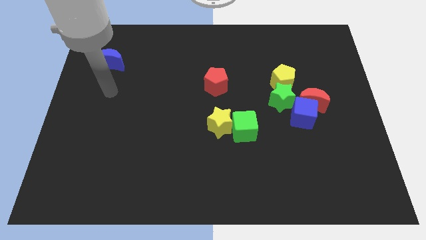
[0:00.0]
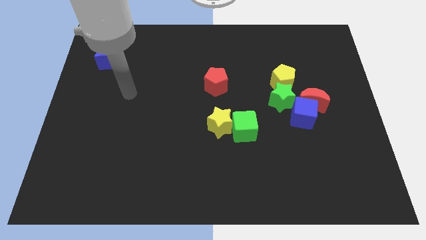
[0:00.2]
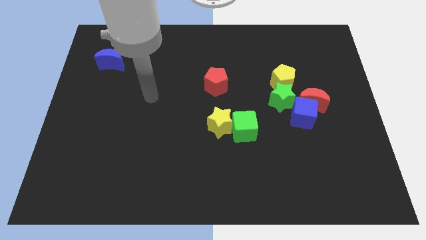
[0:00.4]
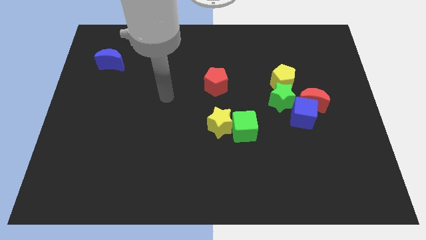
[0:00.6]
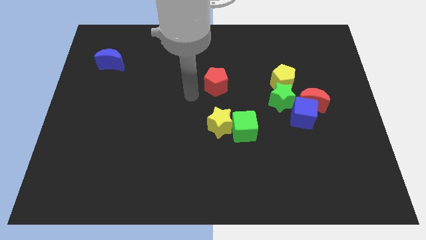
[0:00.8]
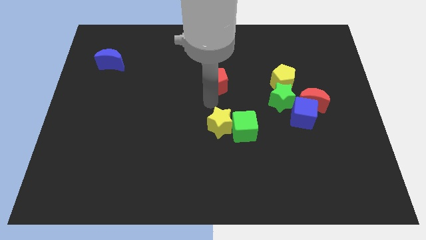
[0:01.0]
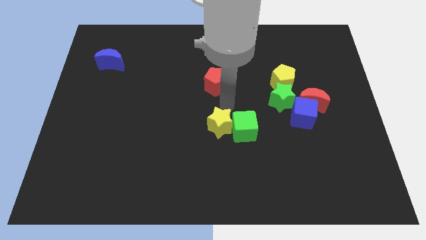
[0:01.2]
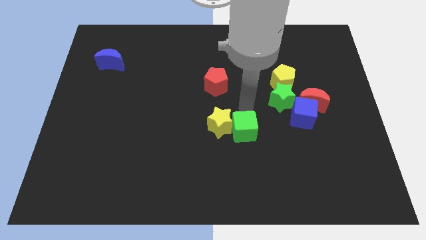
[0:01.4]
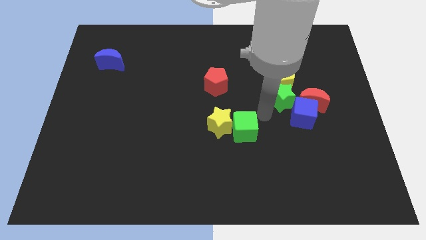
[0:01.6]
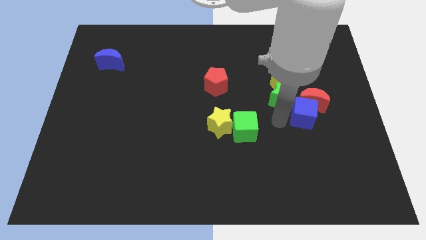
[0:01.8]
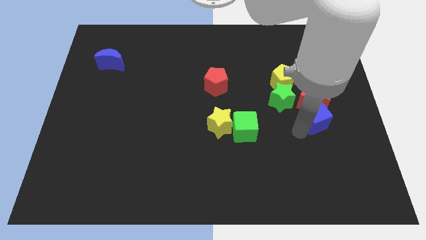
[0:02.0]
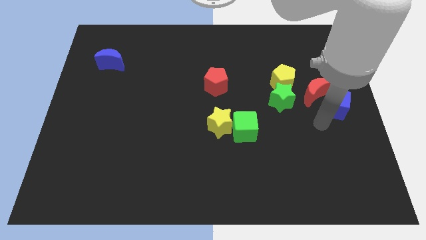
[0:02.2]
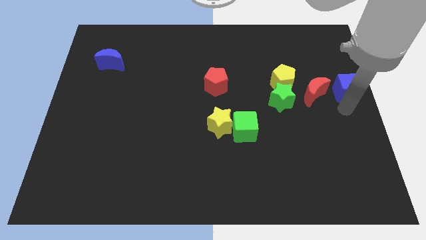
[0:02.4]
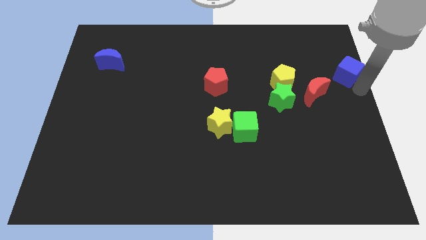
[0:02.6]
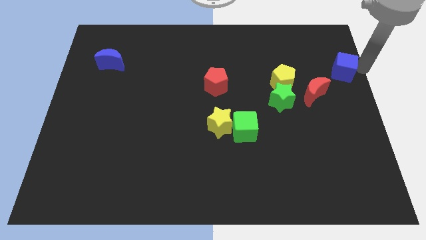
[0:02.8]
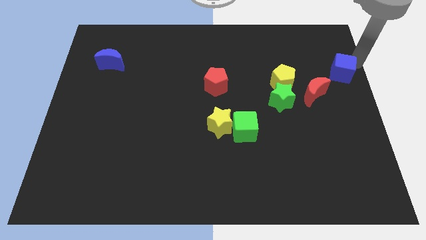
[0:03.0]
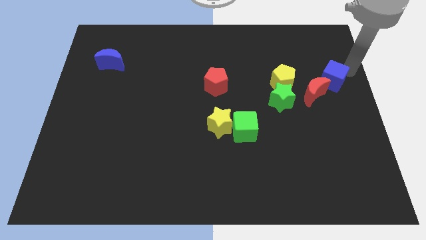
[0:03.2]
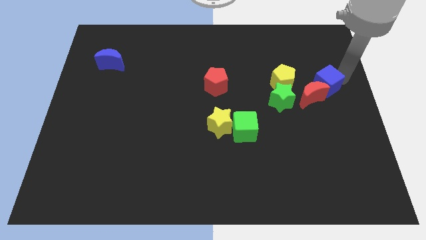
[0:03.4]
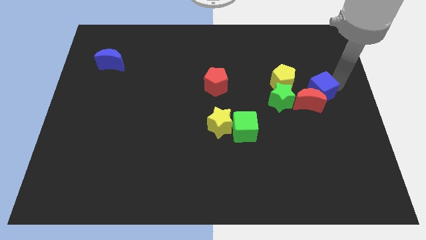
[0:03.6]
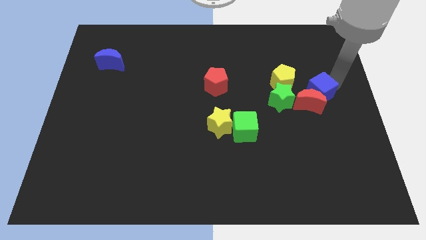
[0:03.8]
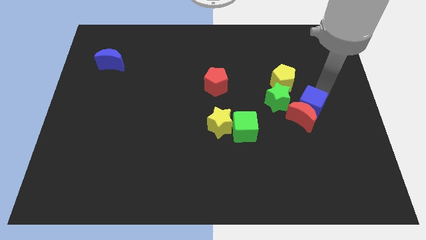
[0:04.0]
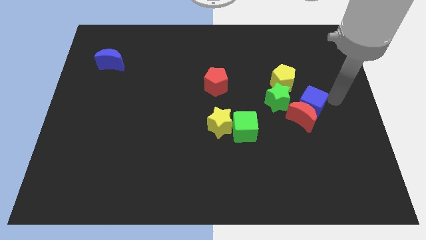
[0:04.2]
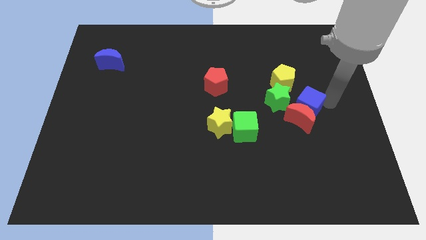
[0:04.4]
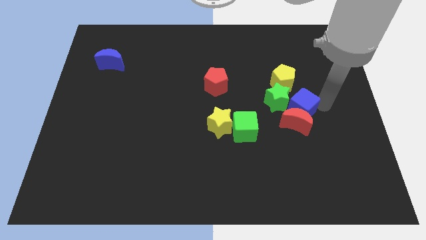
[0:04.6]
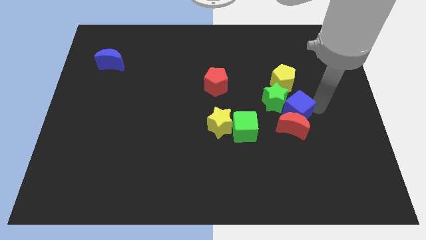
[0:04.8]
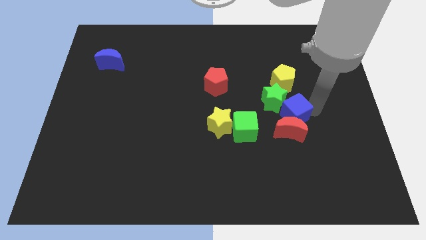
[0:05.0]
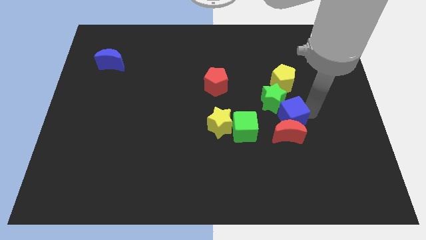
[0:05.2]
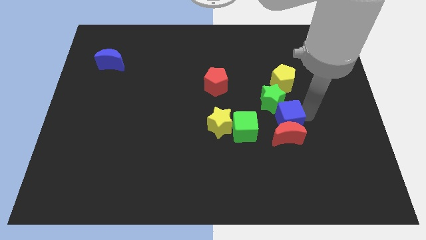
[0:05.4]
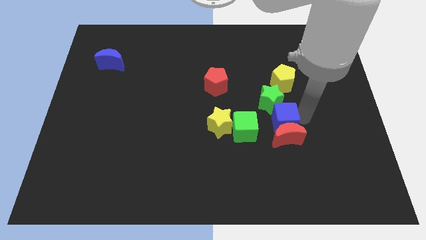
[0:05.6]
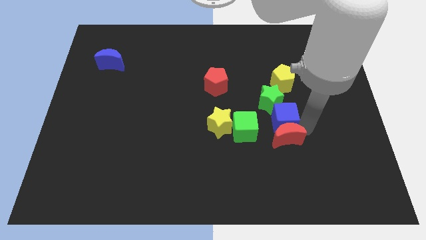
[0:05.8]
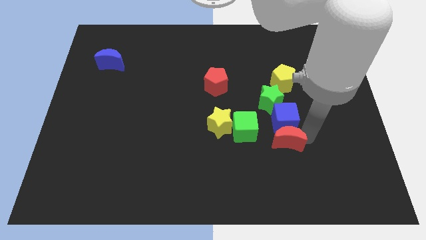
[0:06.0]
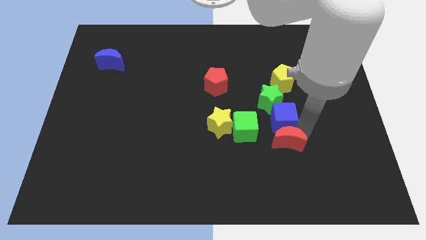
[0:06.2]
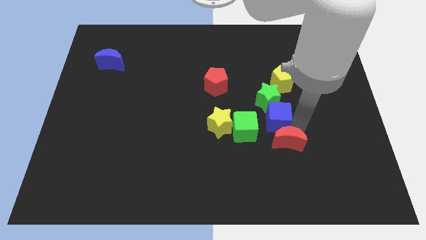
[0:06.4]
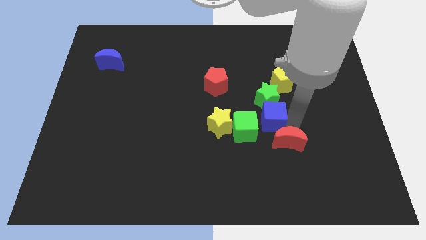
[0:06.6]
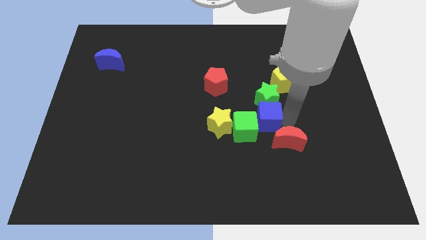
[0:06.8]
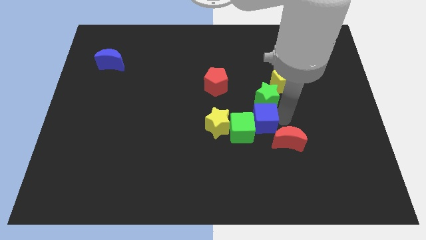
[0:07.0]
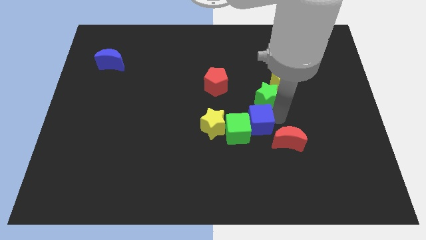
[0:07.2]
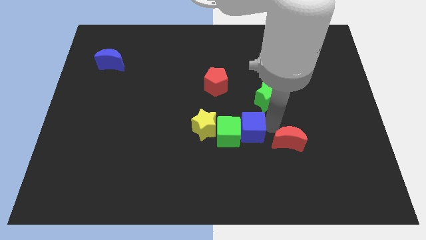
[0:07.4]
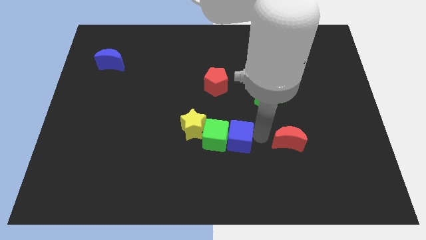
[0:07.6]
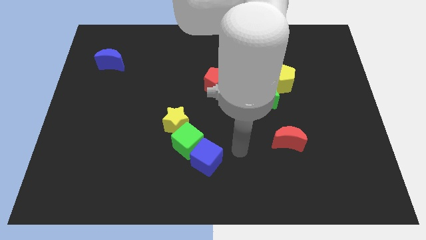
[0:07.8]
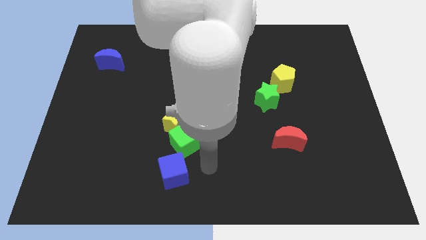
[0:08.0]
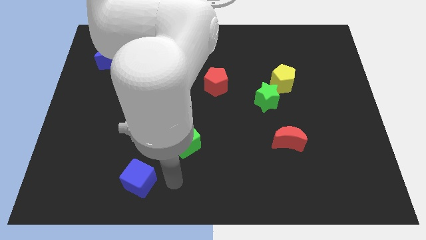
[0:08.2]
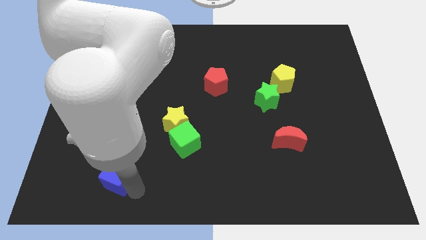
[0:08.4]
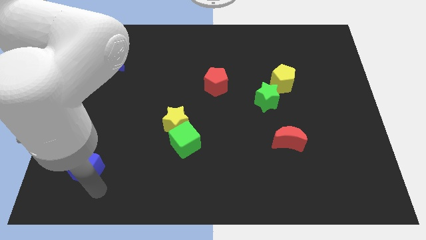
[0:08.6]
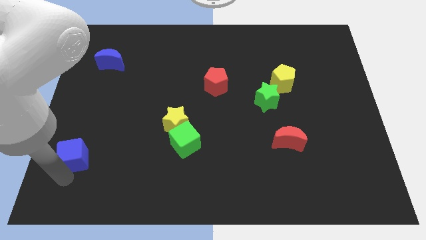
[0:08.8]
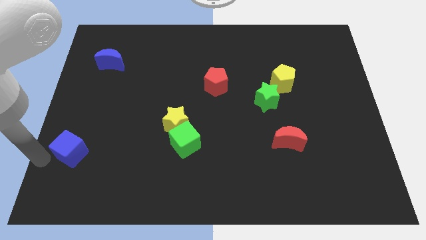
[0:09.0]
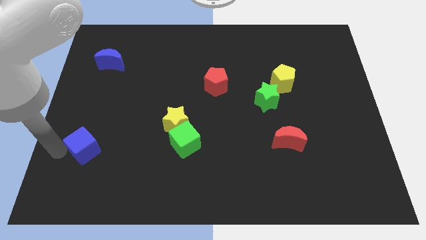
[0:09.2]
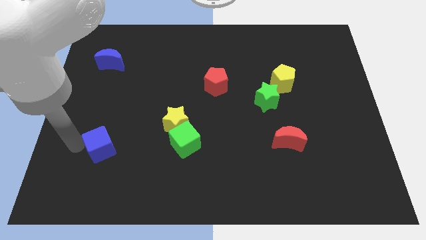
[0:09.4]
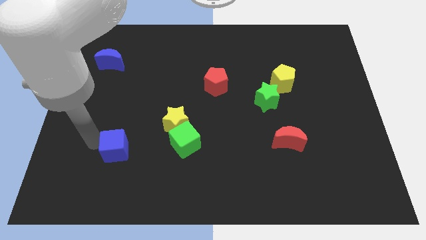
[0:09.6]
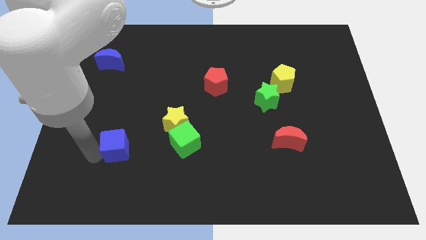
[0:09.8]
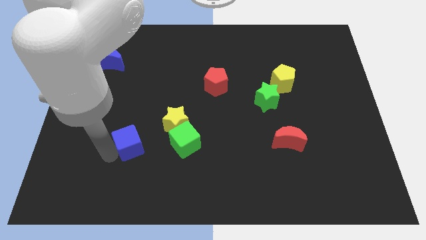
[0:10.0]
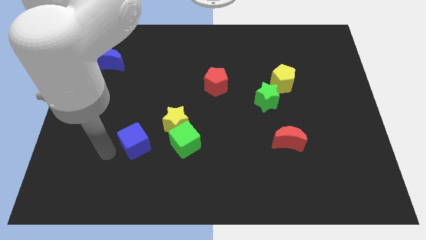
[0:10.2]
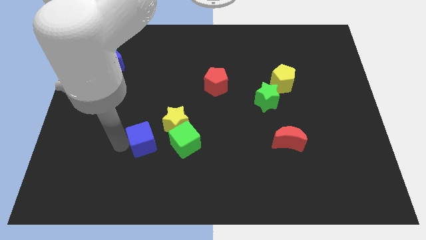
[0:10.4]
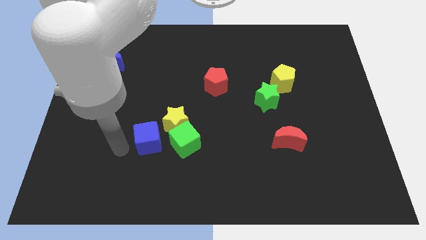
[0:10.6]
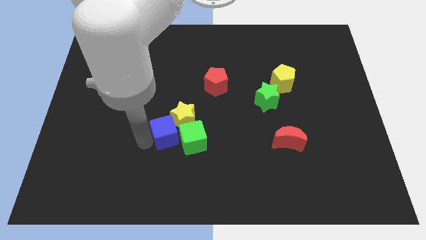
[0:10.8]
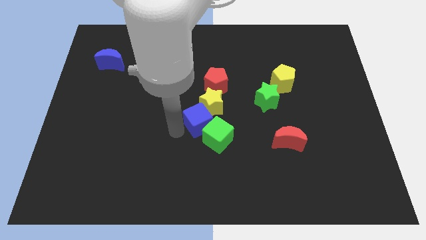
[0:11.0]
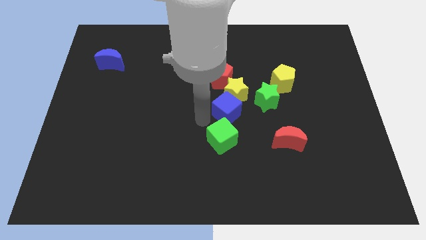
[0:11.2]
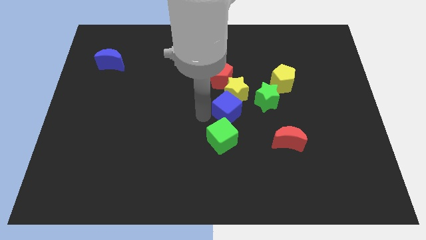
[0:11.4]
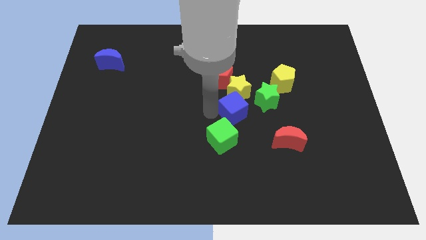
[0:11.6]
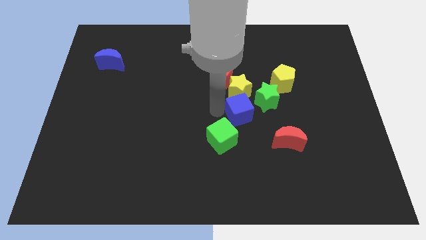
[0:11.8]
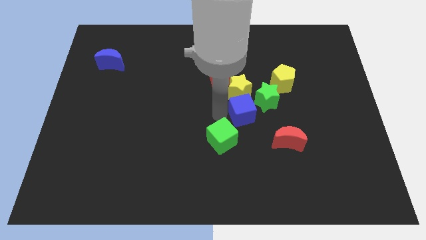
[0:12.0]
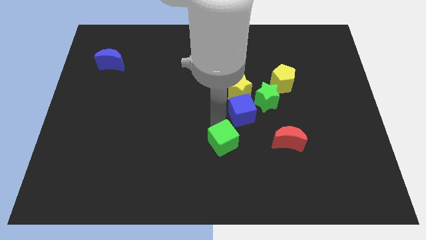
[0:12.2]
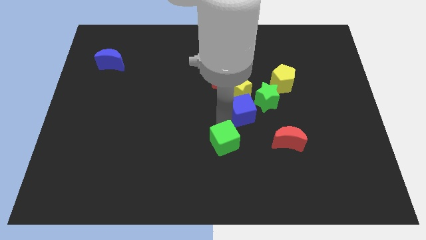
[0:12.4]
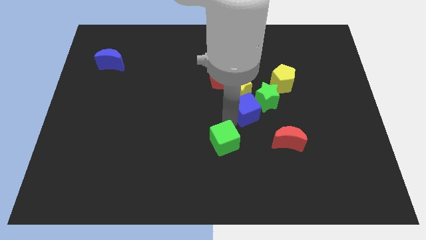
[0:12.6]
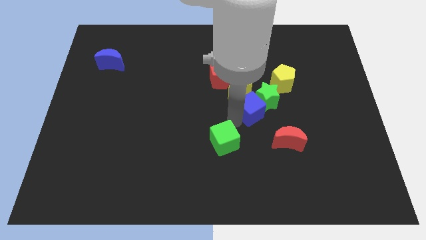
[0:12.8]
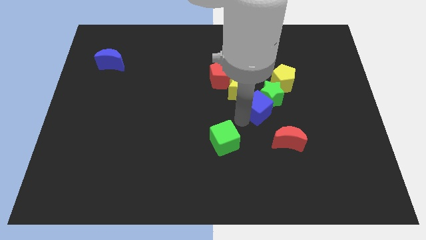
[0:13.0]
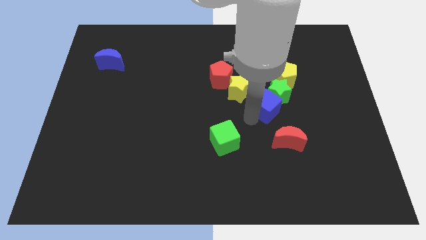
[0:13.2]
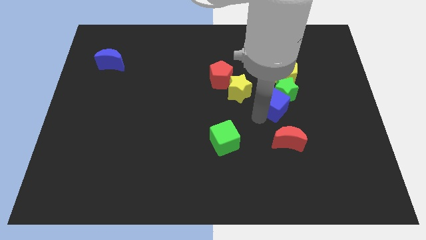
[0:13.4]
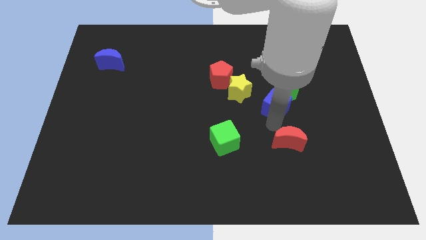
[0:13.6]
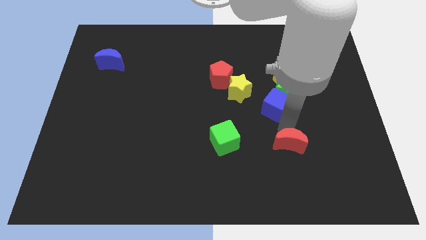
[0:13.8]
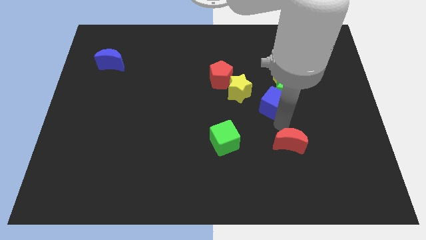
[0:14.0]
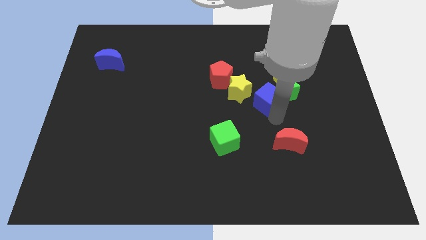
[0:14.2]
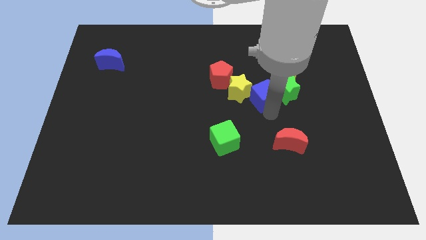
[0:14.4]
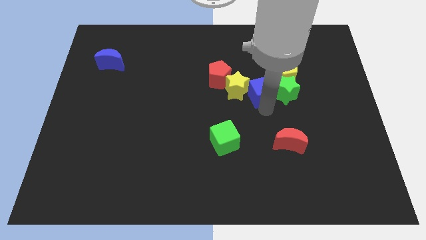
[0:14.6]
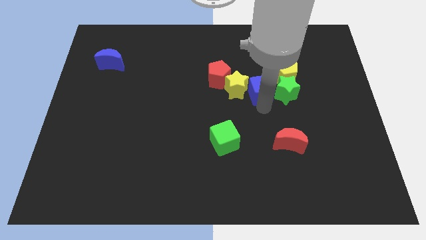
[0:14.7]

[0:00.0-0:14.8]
slide the blue cube just right of the red pentagon
